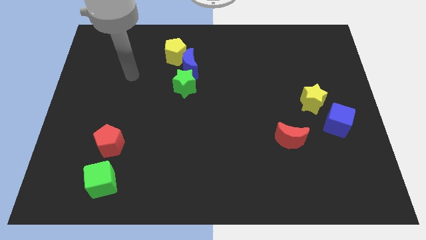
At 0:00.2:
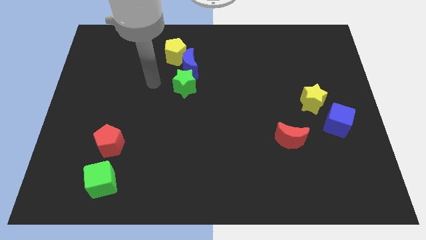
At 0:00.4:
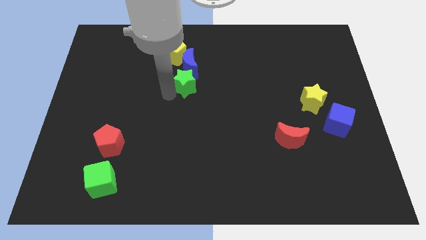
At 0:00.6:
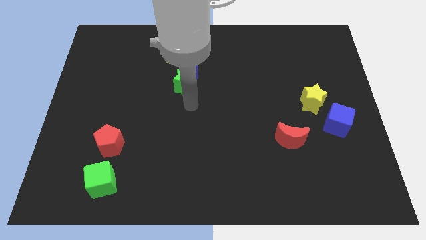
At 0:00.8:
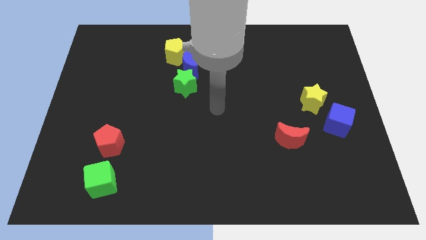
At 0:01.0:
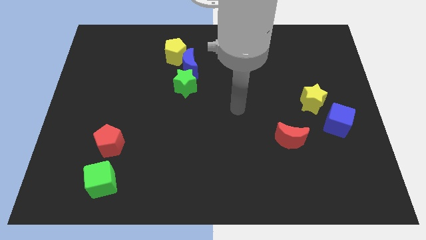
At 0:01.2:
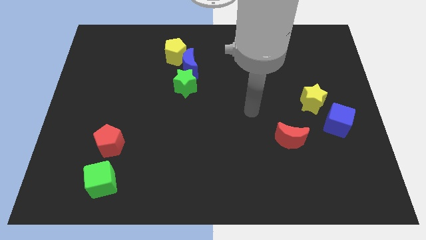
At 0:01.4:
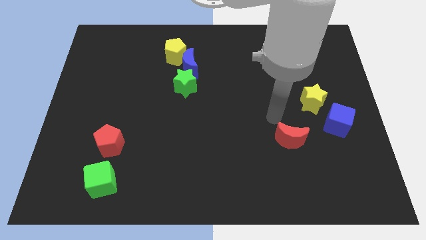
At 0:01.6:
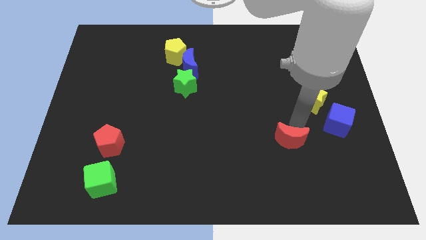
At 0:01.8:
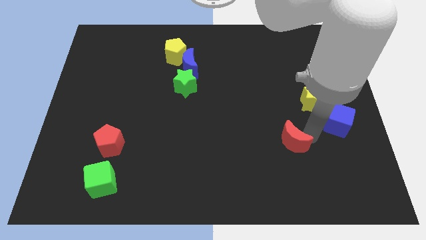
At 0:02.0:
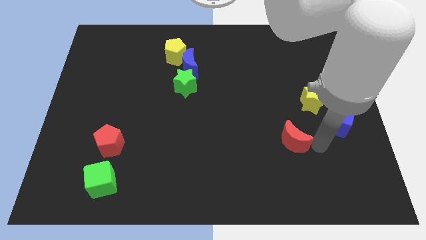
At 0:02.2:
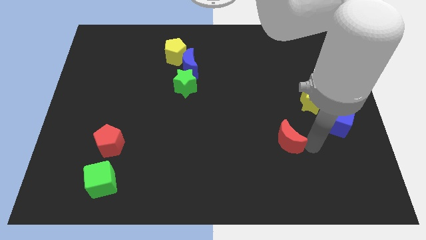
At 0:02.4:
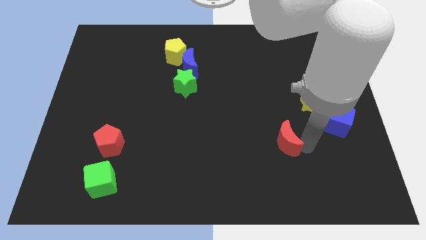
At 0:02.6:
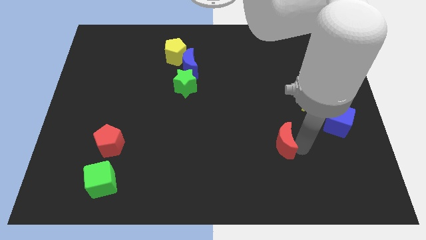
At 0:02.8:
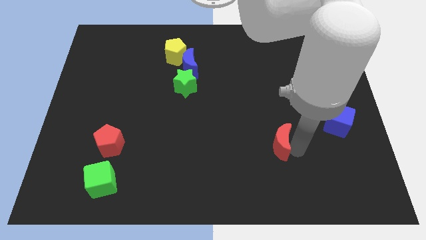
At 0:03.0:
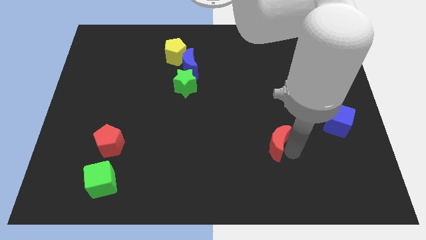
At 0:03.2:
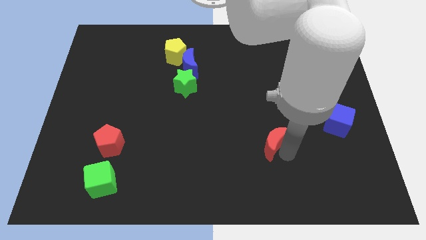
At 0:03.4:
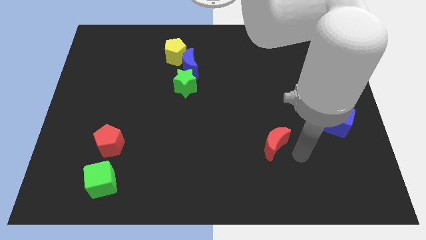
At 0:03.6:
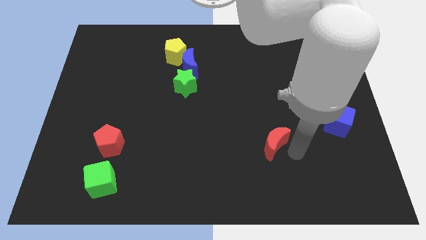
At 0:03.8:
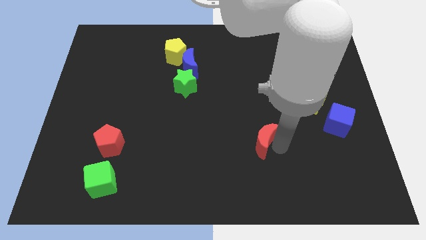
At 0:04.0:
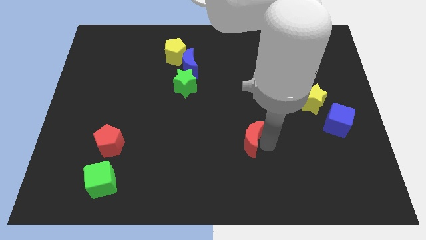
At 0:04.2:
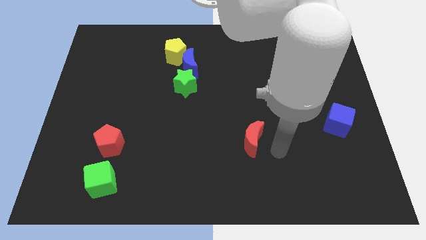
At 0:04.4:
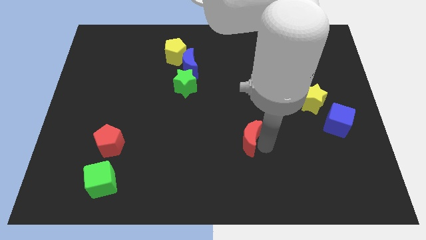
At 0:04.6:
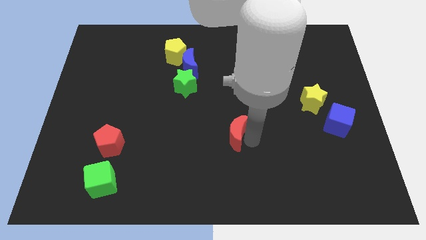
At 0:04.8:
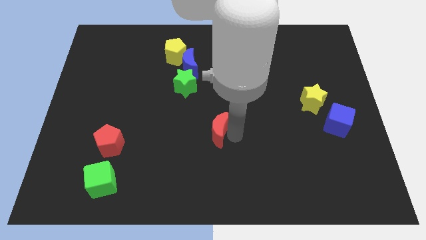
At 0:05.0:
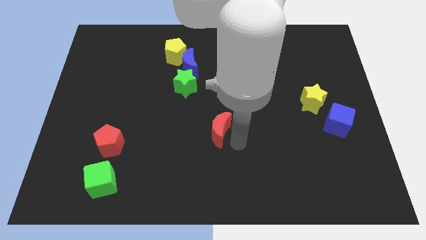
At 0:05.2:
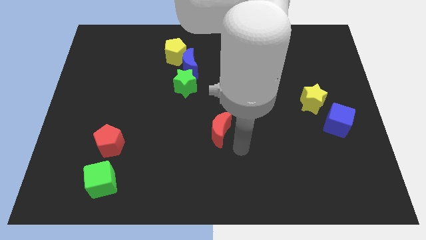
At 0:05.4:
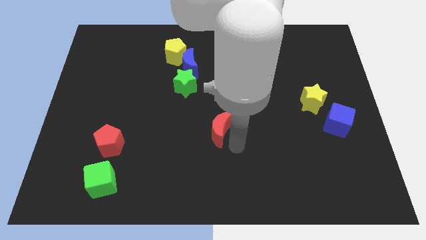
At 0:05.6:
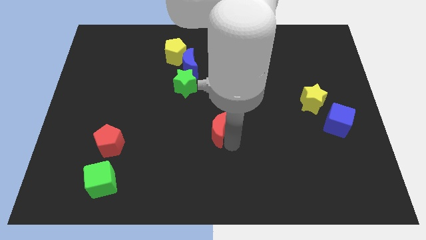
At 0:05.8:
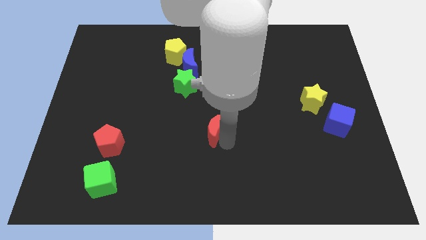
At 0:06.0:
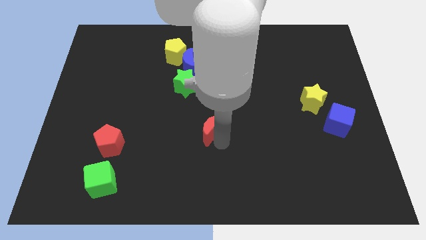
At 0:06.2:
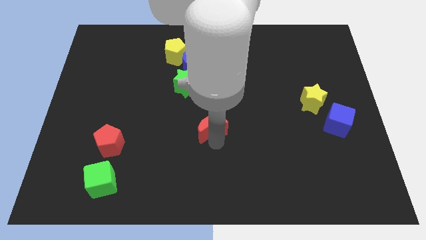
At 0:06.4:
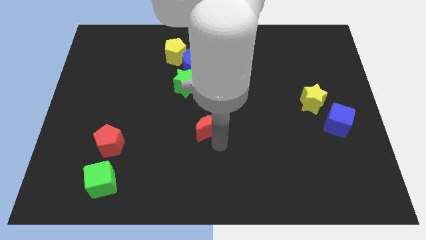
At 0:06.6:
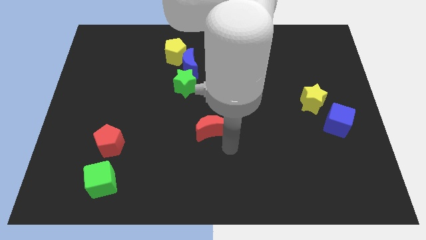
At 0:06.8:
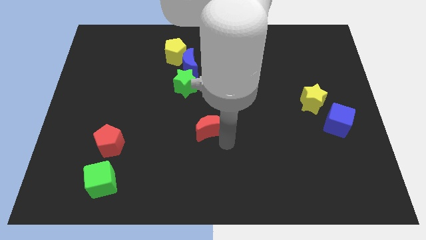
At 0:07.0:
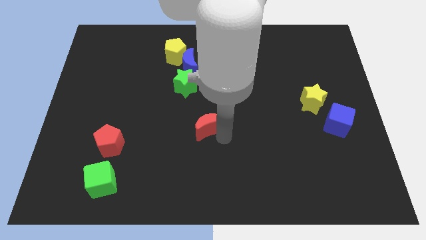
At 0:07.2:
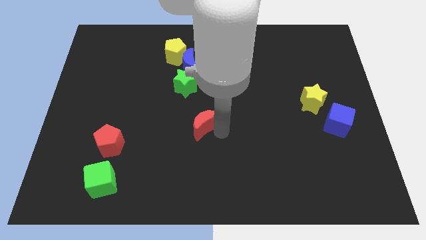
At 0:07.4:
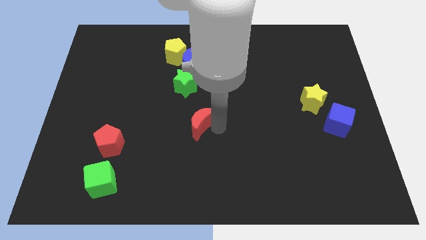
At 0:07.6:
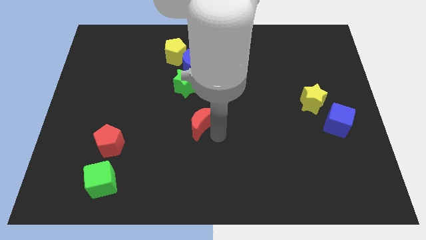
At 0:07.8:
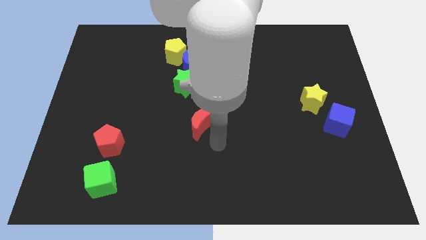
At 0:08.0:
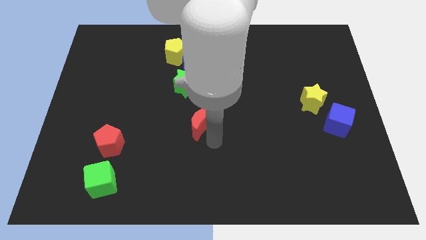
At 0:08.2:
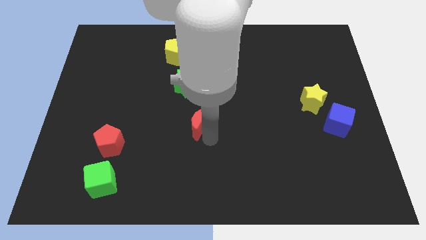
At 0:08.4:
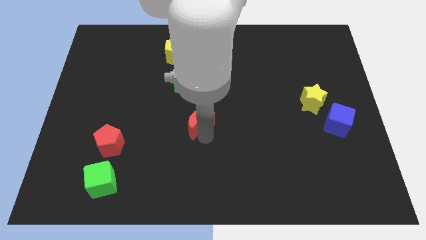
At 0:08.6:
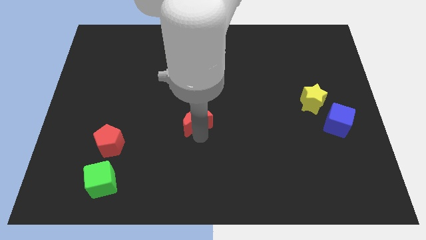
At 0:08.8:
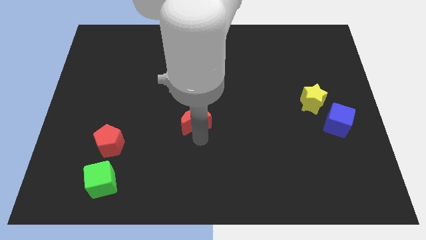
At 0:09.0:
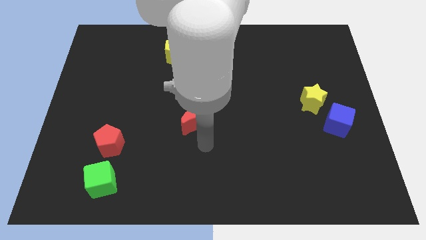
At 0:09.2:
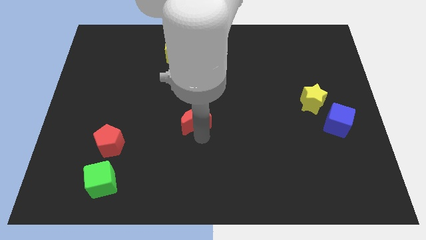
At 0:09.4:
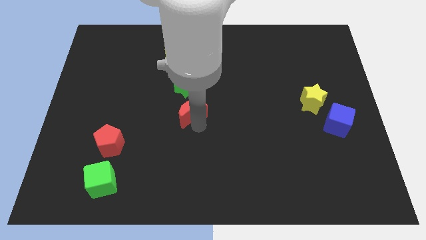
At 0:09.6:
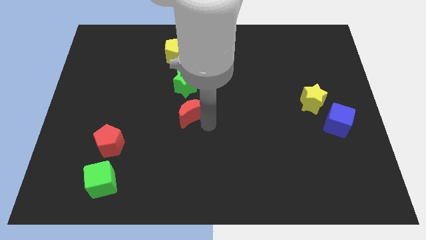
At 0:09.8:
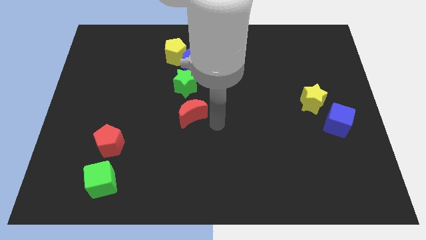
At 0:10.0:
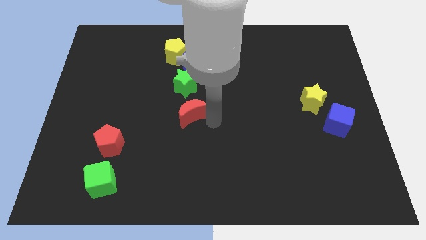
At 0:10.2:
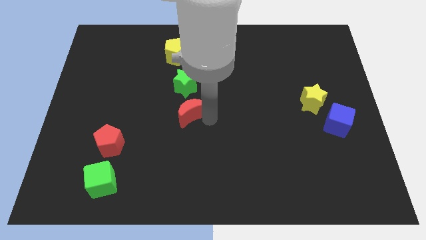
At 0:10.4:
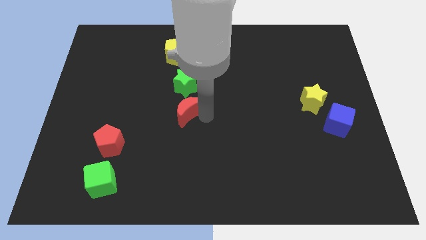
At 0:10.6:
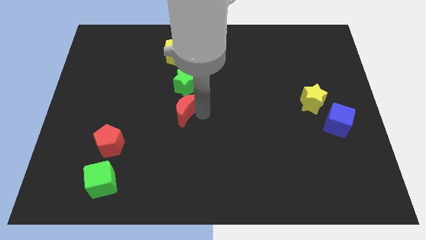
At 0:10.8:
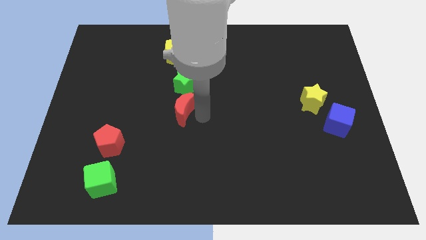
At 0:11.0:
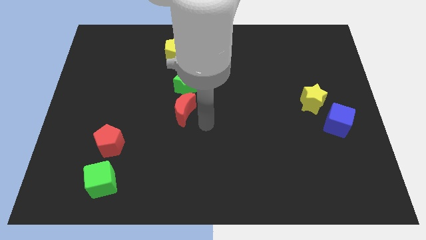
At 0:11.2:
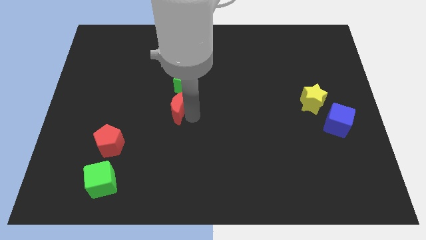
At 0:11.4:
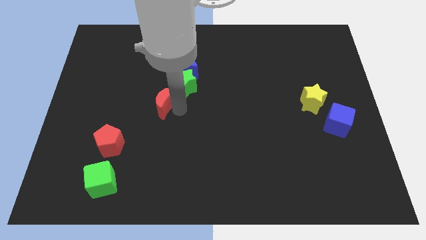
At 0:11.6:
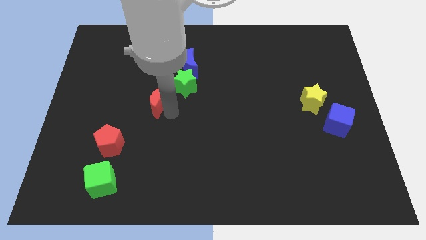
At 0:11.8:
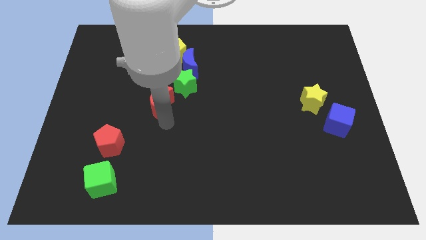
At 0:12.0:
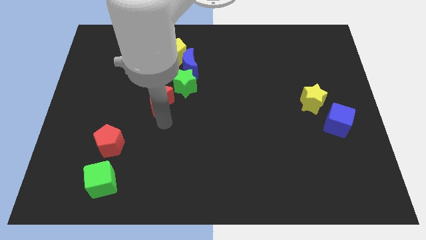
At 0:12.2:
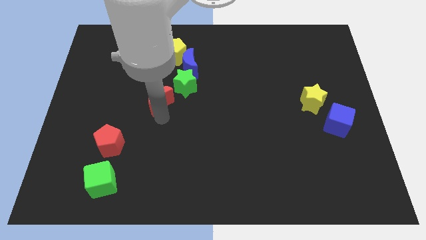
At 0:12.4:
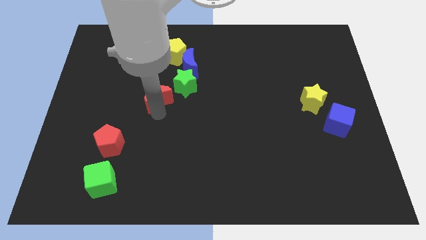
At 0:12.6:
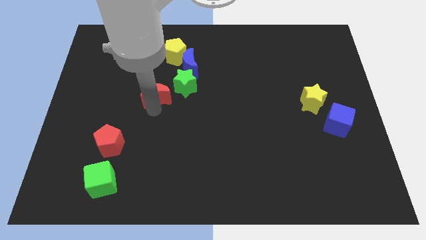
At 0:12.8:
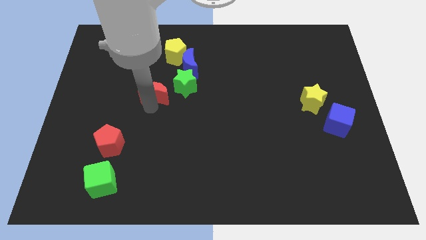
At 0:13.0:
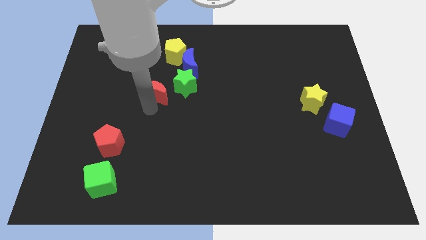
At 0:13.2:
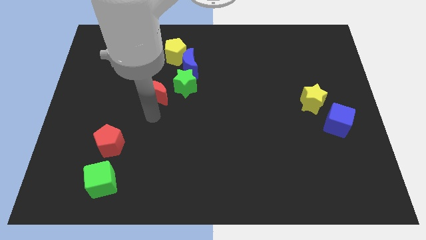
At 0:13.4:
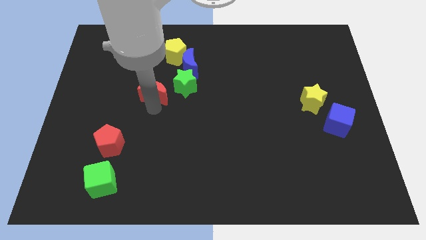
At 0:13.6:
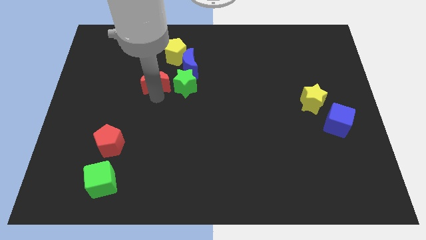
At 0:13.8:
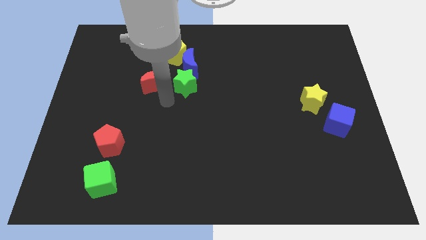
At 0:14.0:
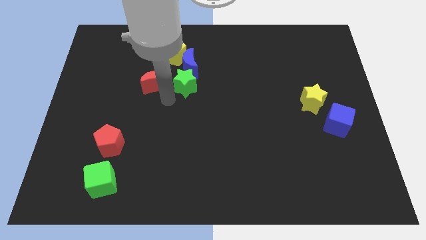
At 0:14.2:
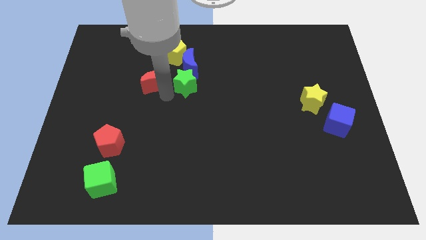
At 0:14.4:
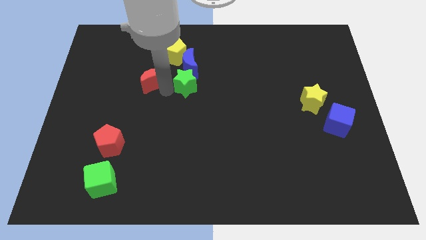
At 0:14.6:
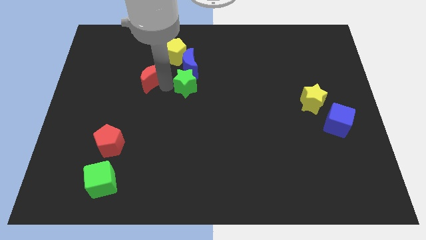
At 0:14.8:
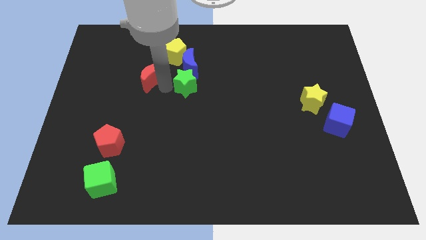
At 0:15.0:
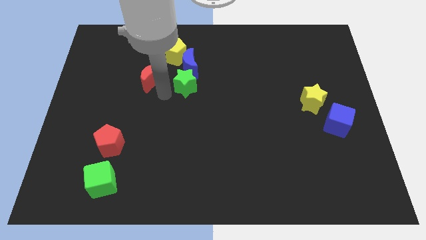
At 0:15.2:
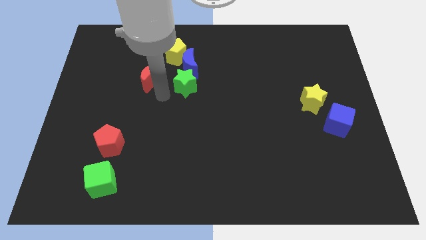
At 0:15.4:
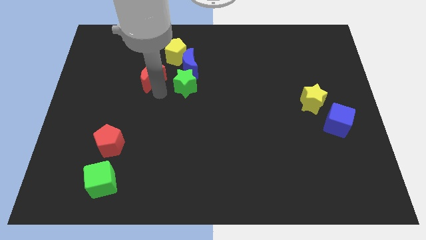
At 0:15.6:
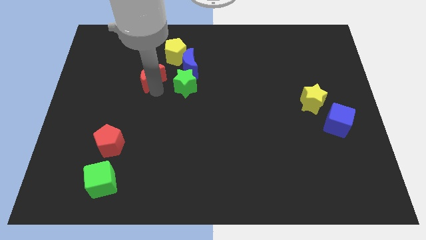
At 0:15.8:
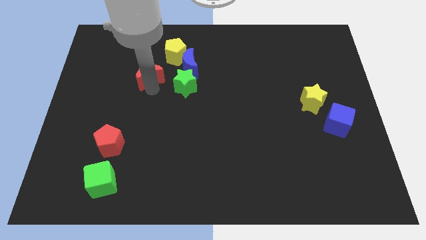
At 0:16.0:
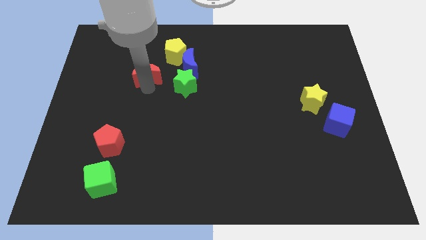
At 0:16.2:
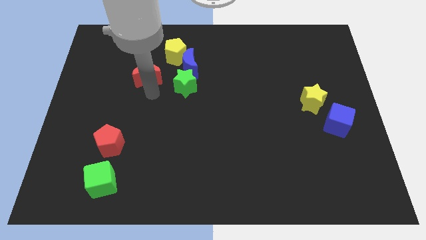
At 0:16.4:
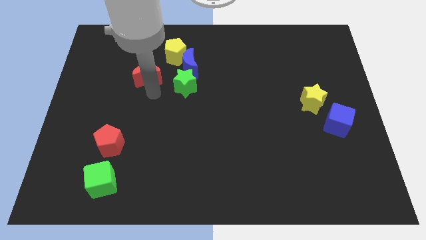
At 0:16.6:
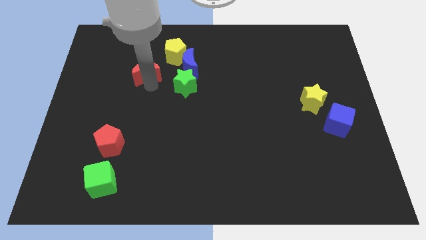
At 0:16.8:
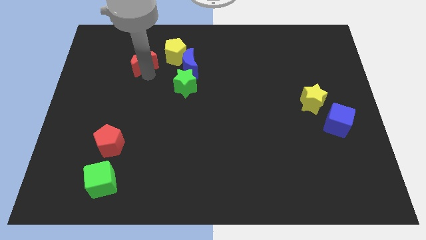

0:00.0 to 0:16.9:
move the red moon to the left side of the yellow pentagon
